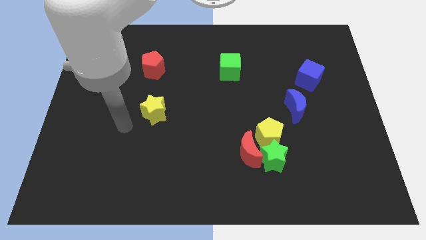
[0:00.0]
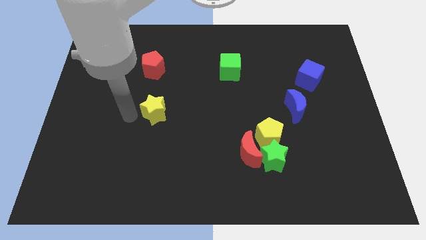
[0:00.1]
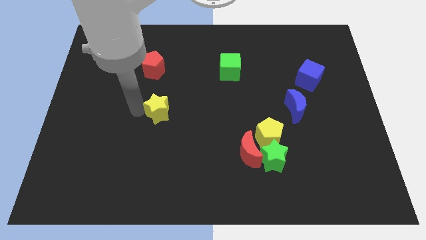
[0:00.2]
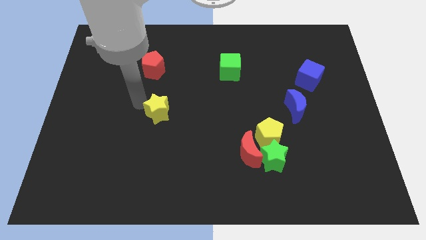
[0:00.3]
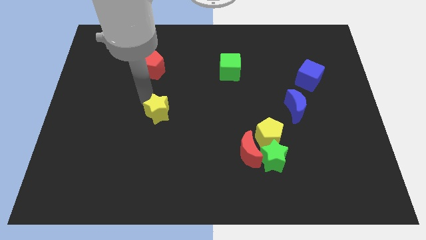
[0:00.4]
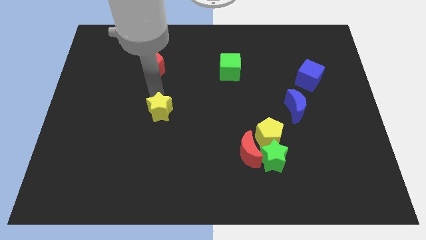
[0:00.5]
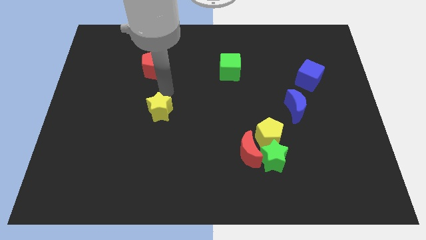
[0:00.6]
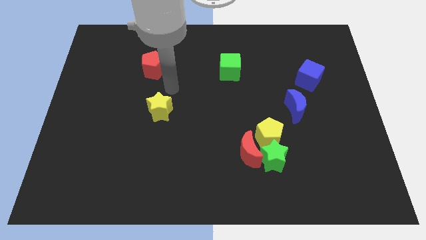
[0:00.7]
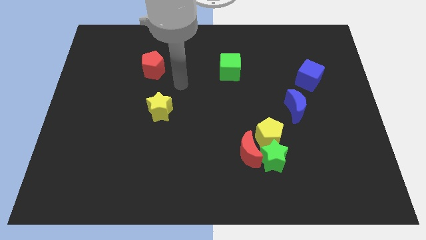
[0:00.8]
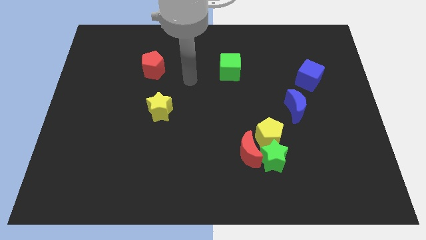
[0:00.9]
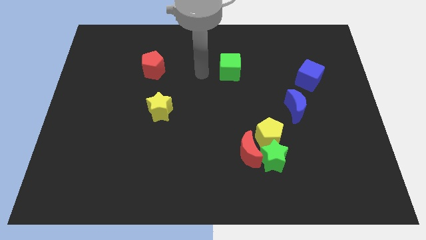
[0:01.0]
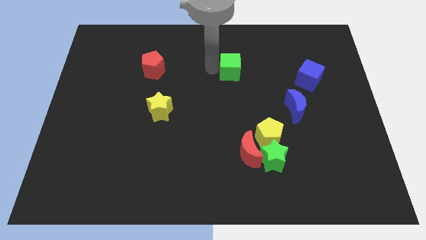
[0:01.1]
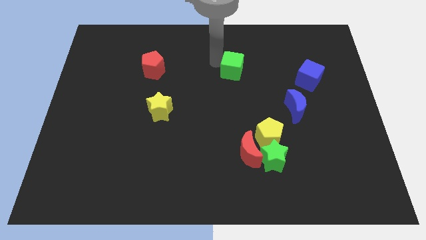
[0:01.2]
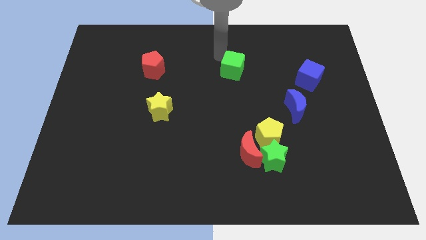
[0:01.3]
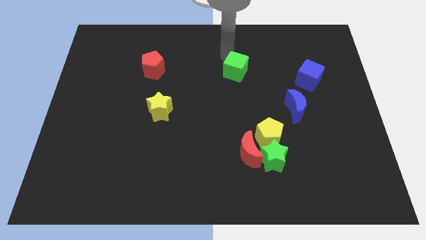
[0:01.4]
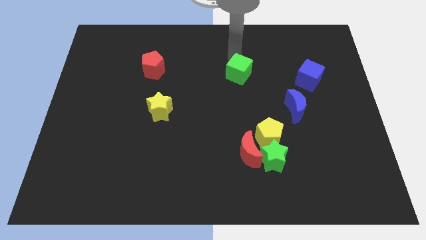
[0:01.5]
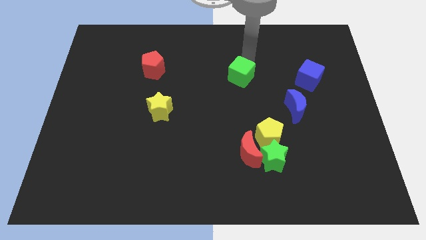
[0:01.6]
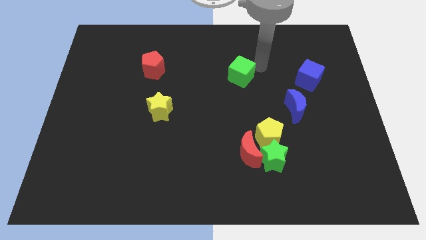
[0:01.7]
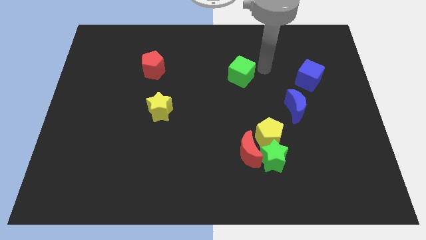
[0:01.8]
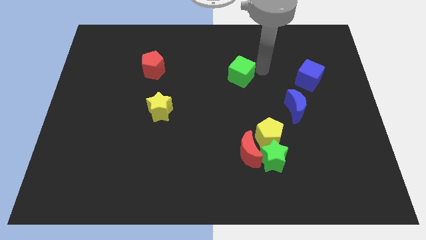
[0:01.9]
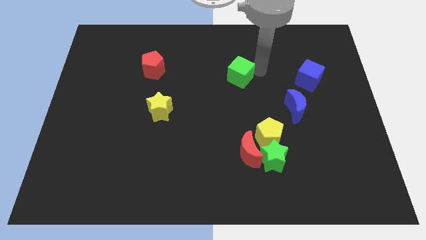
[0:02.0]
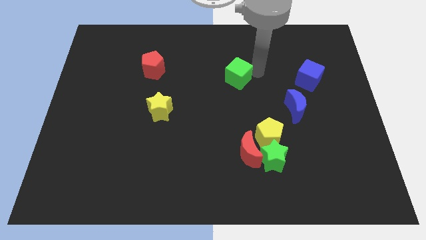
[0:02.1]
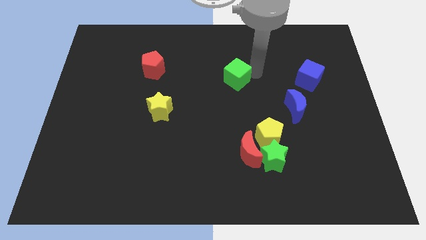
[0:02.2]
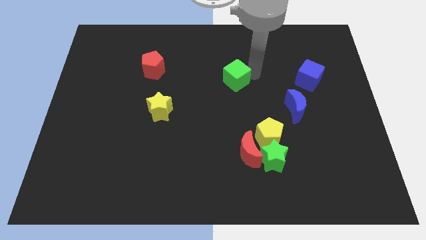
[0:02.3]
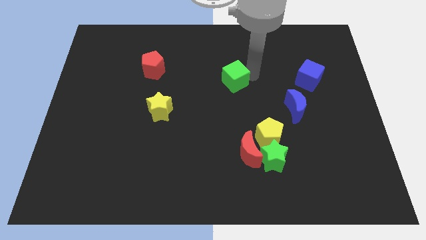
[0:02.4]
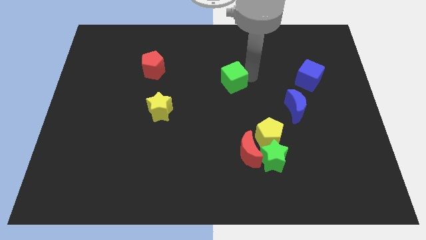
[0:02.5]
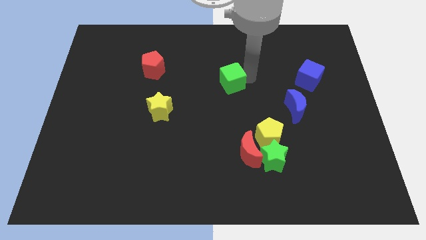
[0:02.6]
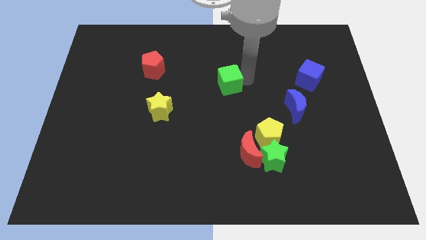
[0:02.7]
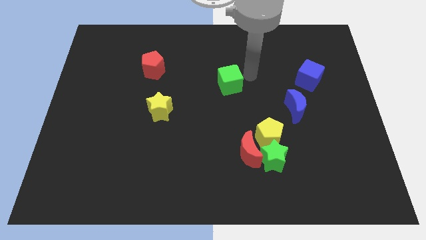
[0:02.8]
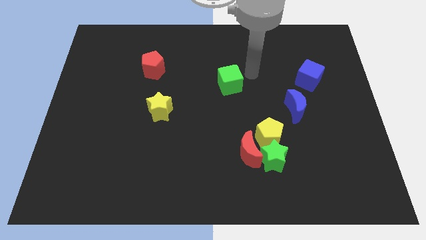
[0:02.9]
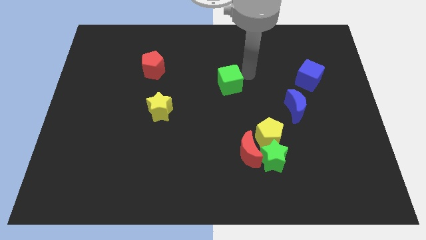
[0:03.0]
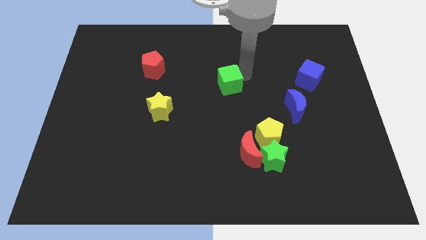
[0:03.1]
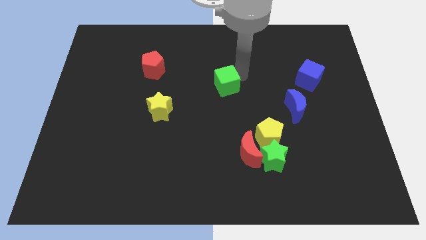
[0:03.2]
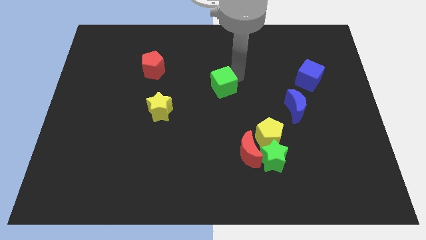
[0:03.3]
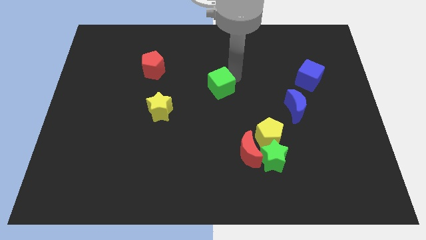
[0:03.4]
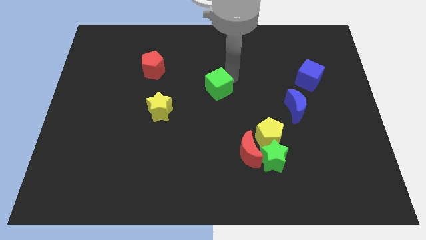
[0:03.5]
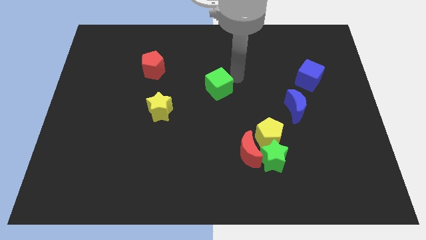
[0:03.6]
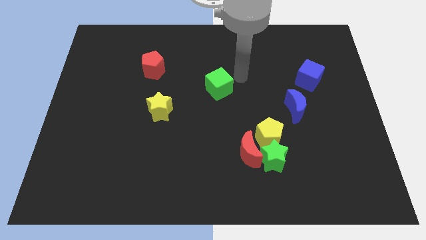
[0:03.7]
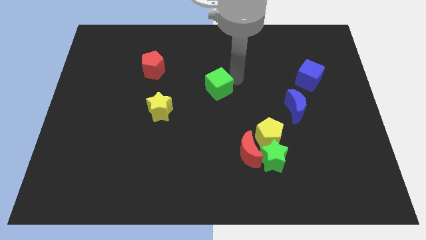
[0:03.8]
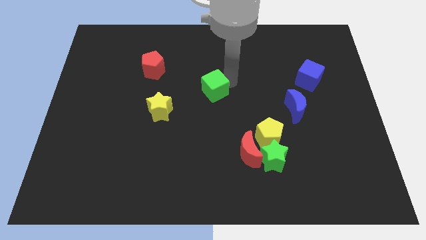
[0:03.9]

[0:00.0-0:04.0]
slightly move the green cube downwards and to the left

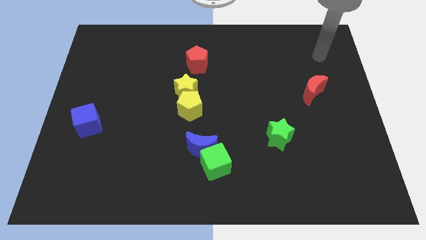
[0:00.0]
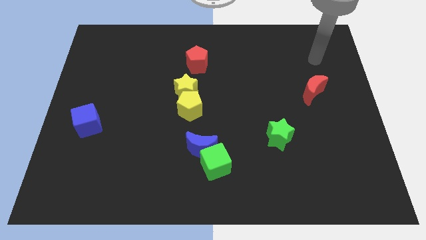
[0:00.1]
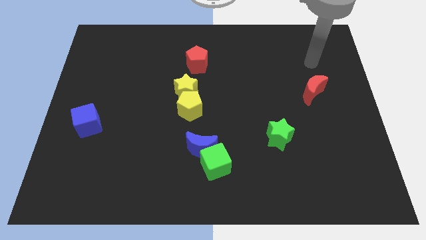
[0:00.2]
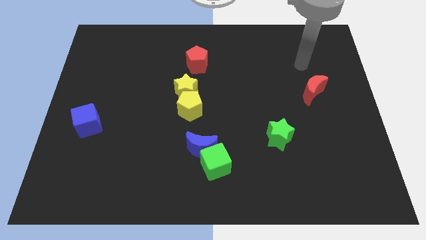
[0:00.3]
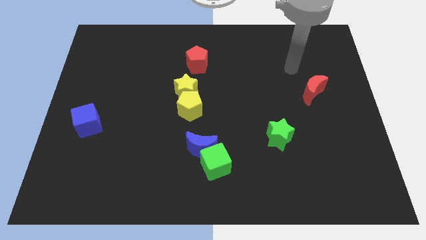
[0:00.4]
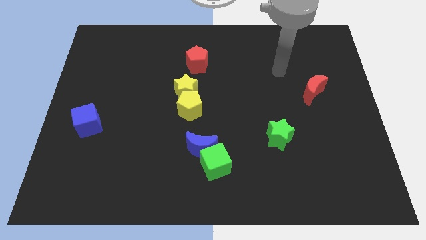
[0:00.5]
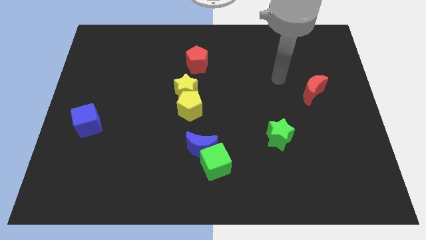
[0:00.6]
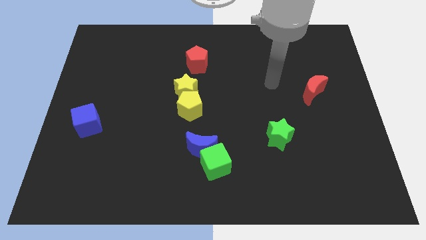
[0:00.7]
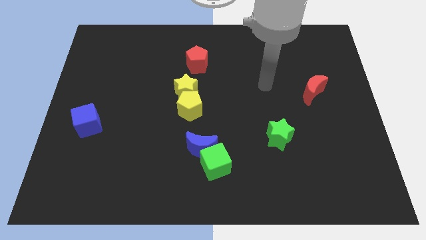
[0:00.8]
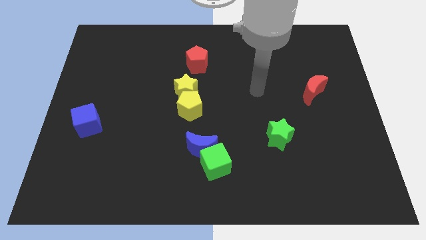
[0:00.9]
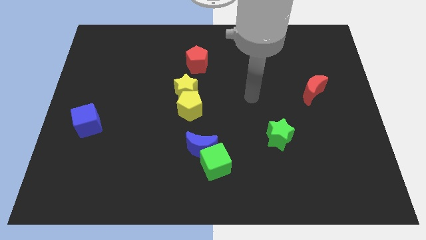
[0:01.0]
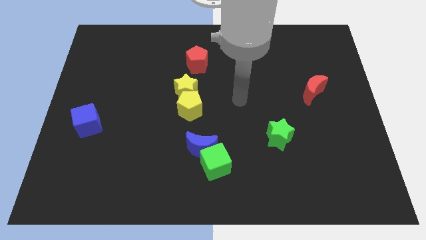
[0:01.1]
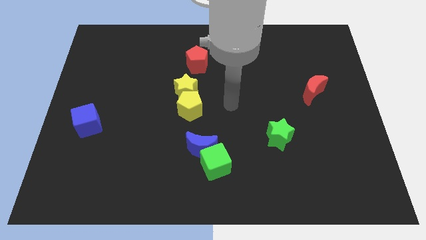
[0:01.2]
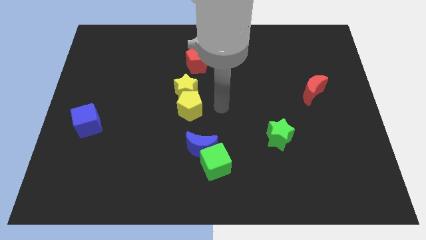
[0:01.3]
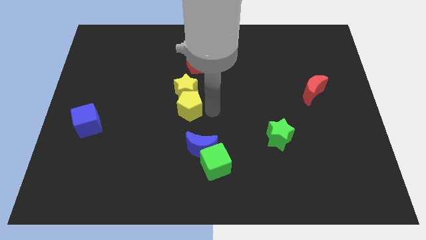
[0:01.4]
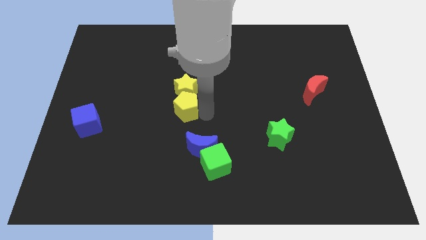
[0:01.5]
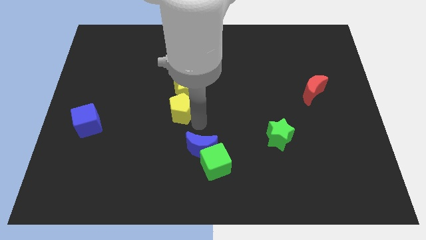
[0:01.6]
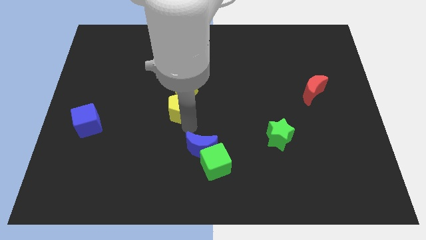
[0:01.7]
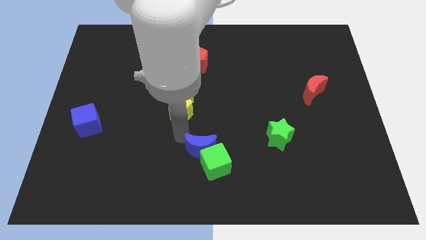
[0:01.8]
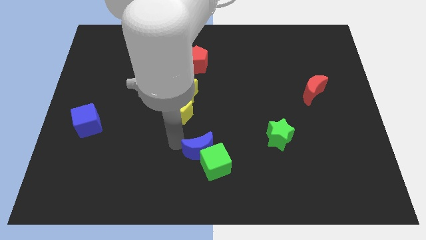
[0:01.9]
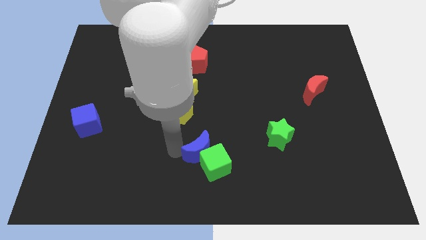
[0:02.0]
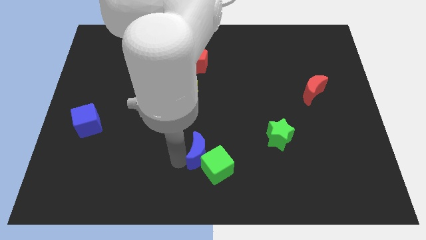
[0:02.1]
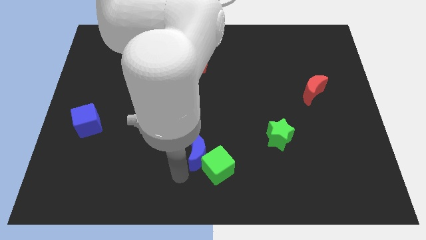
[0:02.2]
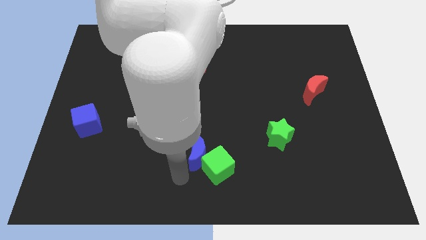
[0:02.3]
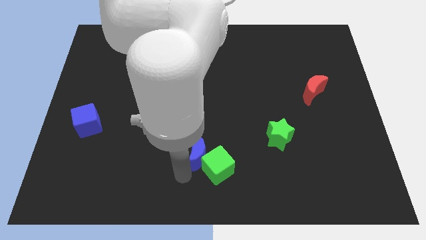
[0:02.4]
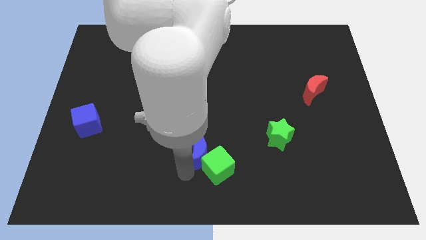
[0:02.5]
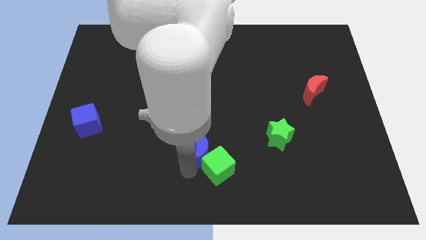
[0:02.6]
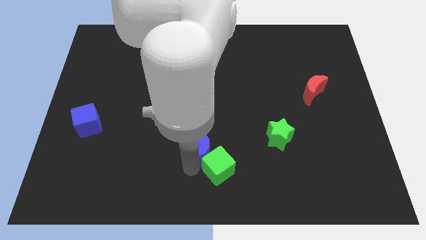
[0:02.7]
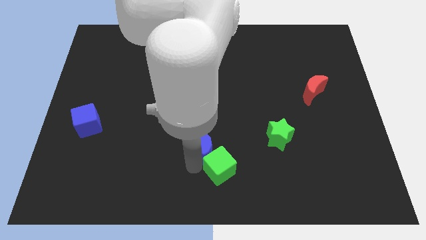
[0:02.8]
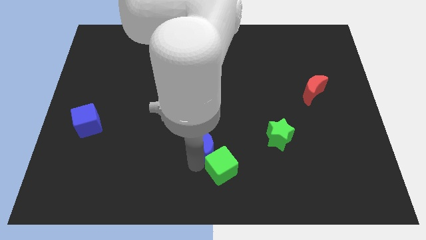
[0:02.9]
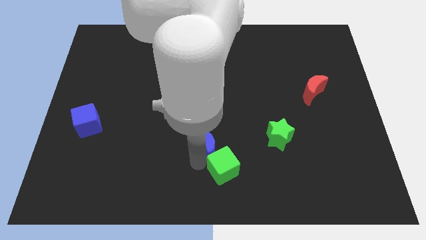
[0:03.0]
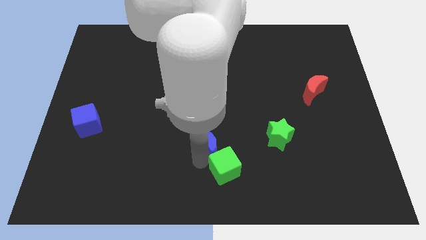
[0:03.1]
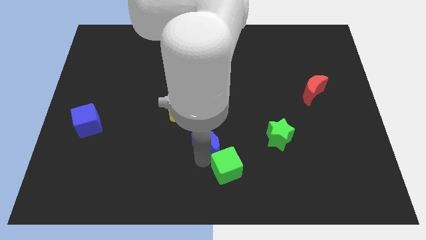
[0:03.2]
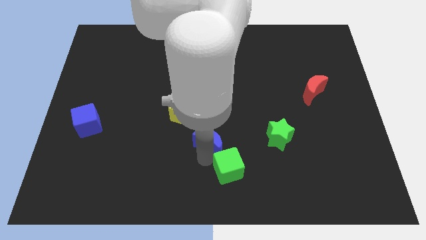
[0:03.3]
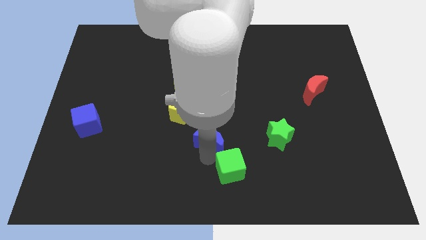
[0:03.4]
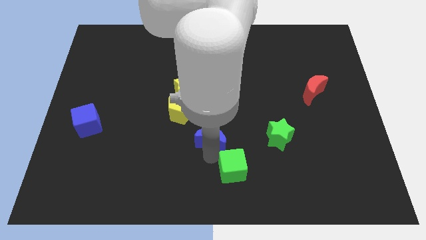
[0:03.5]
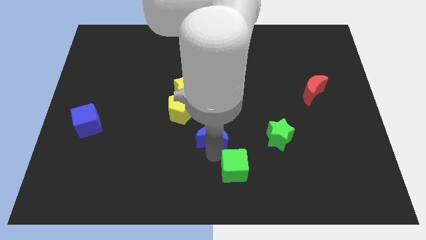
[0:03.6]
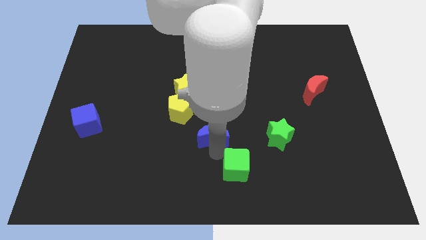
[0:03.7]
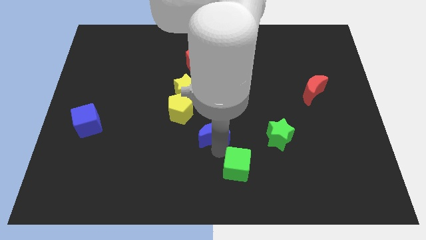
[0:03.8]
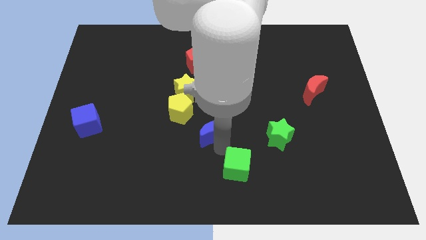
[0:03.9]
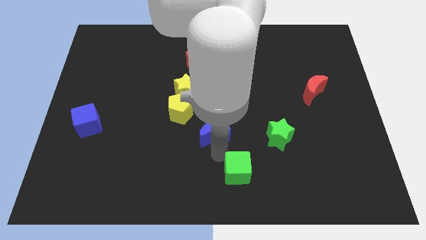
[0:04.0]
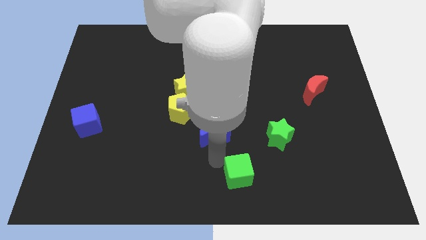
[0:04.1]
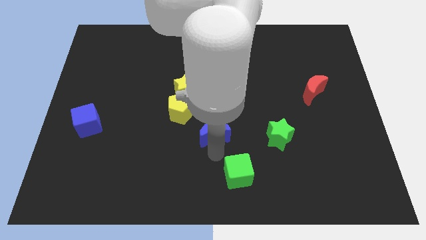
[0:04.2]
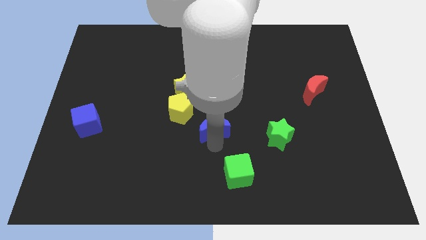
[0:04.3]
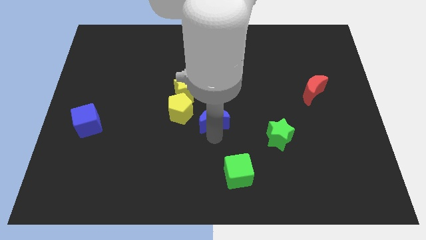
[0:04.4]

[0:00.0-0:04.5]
slightly move the blue moon up
